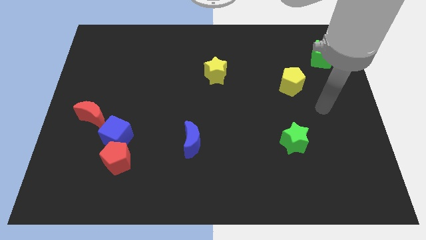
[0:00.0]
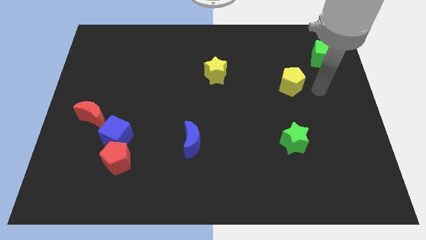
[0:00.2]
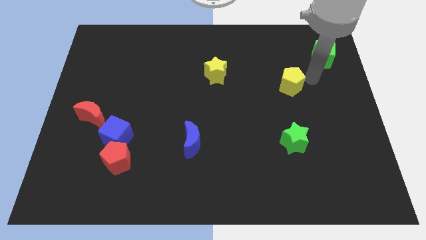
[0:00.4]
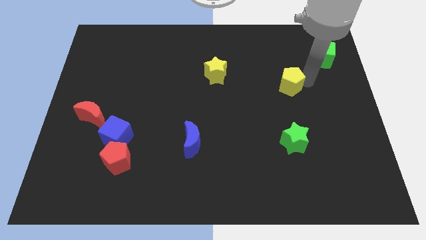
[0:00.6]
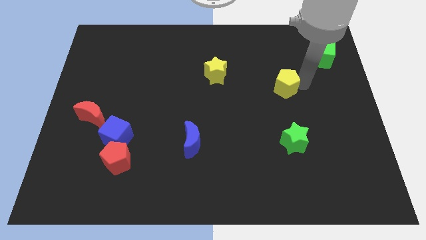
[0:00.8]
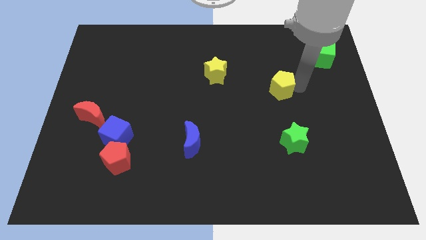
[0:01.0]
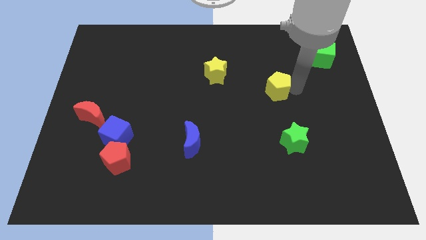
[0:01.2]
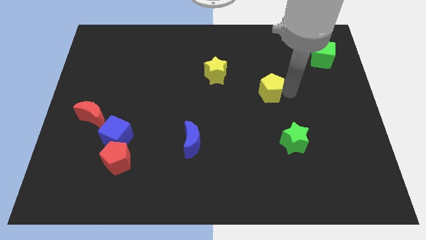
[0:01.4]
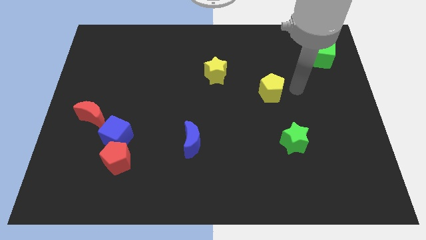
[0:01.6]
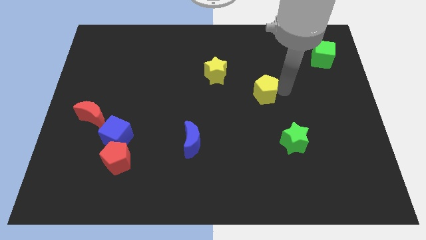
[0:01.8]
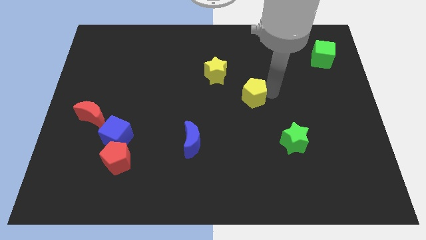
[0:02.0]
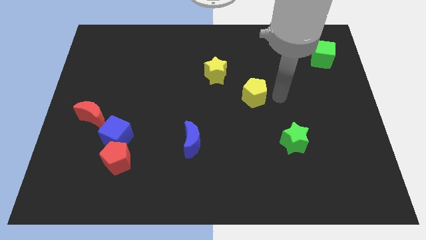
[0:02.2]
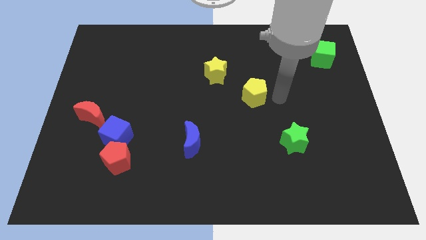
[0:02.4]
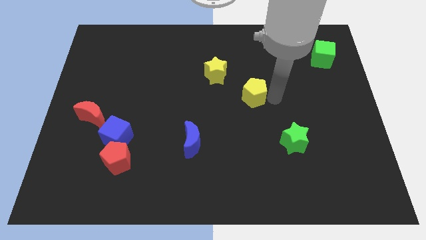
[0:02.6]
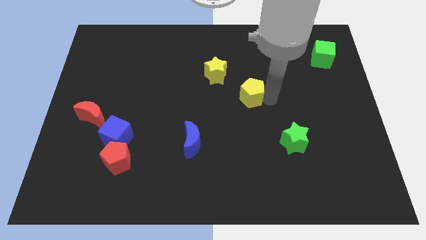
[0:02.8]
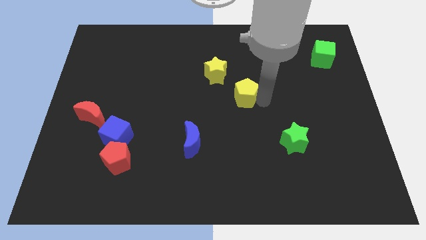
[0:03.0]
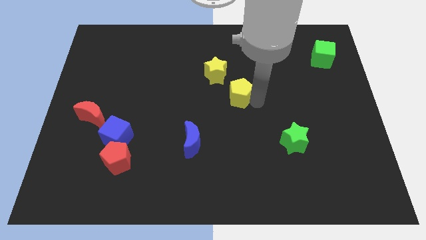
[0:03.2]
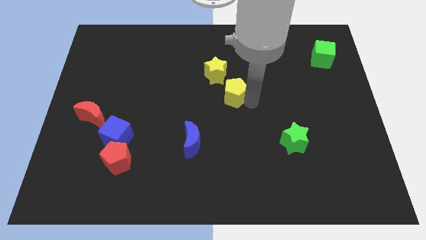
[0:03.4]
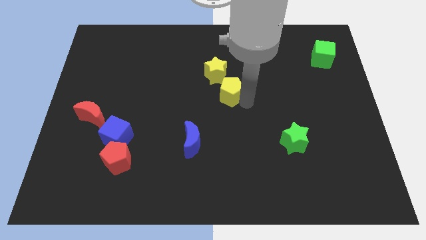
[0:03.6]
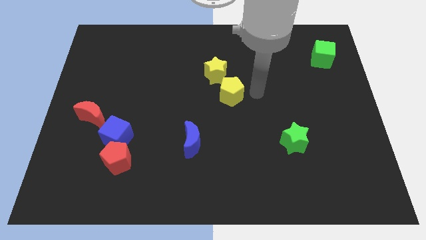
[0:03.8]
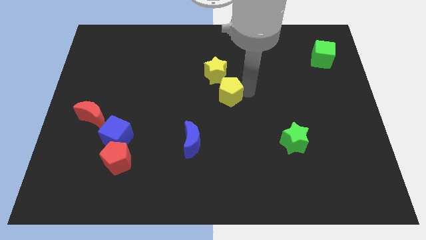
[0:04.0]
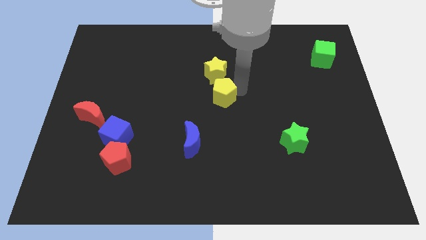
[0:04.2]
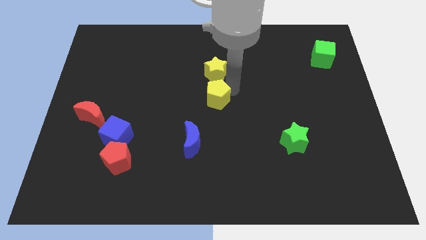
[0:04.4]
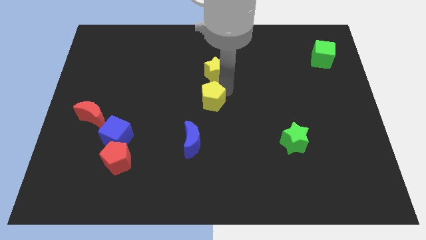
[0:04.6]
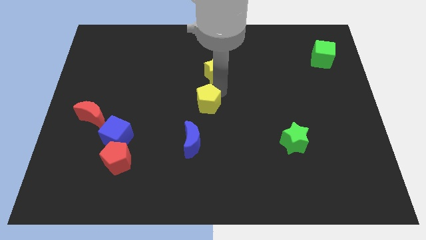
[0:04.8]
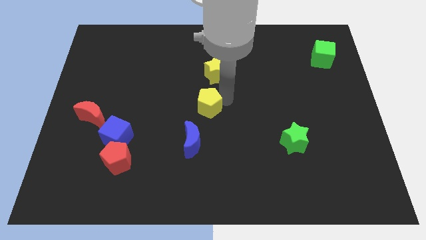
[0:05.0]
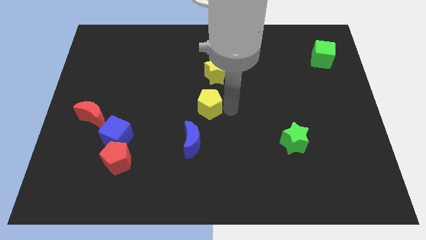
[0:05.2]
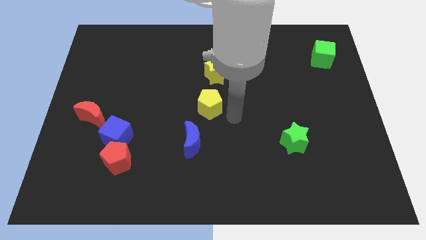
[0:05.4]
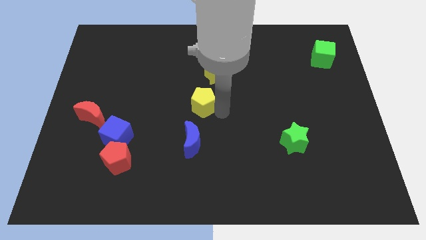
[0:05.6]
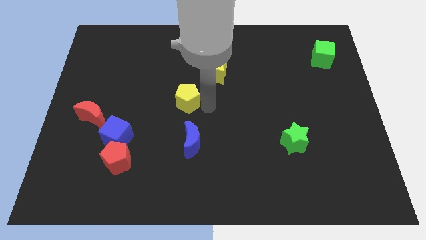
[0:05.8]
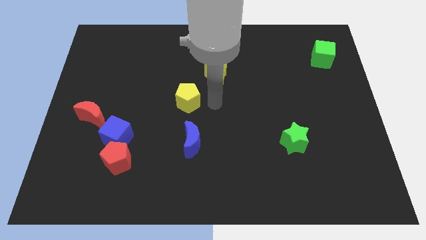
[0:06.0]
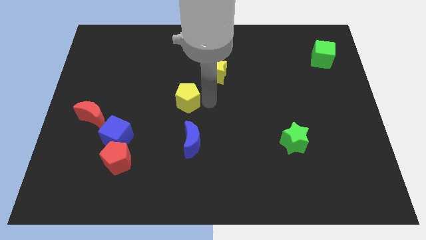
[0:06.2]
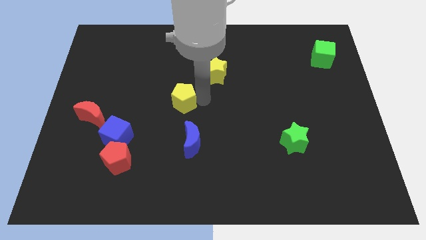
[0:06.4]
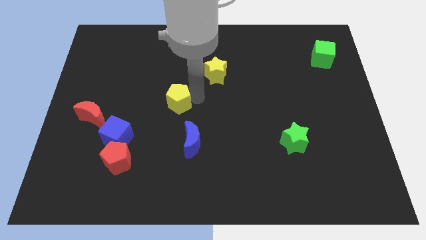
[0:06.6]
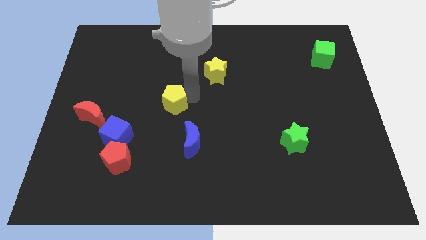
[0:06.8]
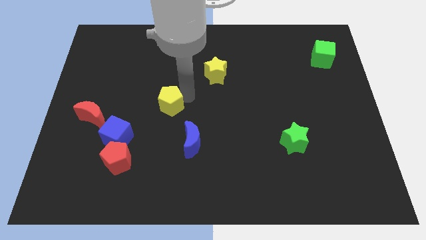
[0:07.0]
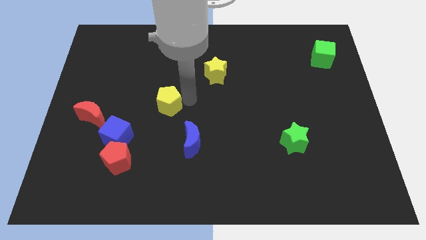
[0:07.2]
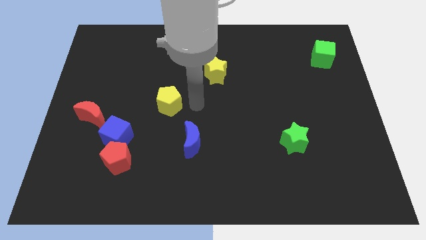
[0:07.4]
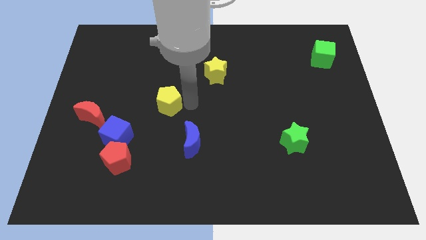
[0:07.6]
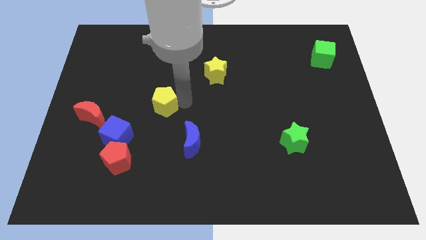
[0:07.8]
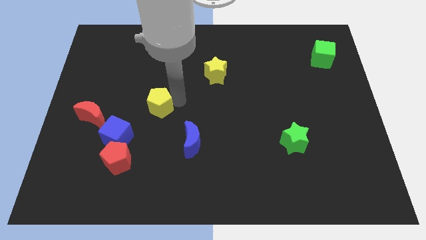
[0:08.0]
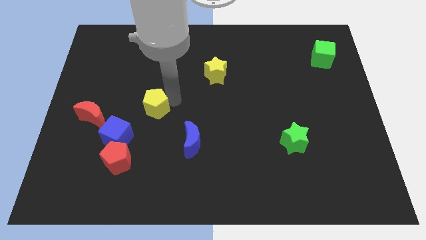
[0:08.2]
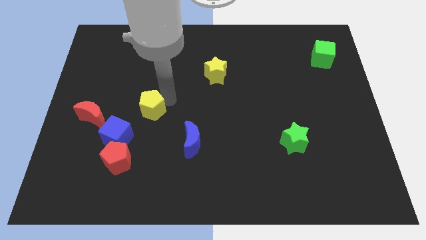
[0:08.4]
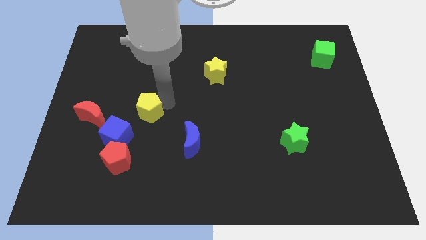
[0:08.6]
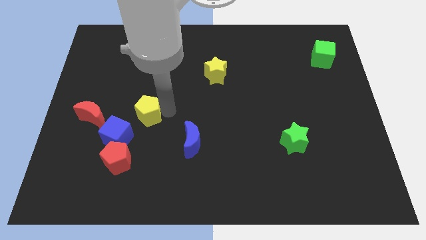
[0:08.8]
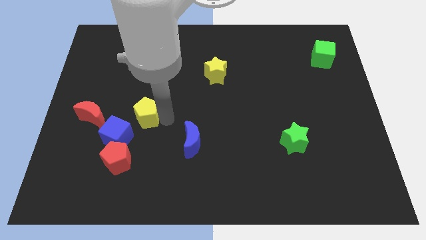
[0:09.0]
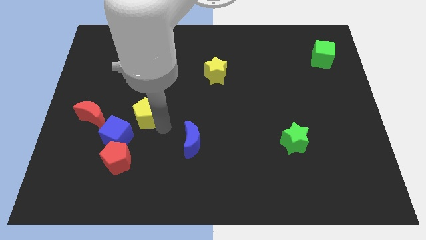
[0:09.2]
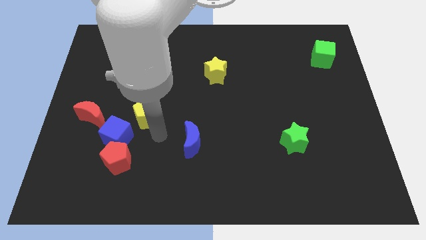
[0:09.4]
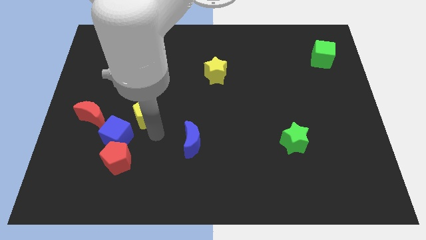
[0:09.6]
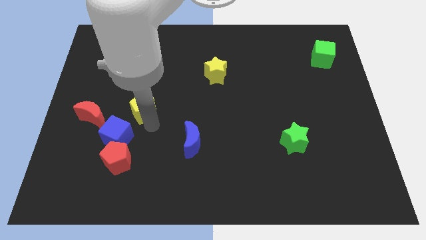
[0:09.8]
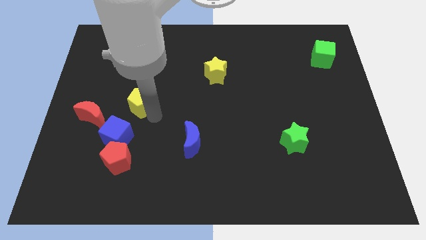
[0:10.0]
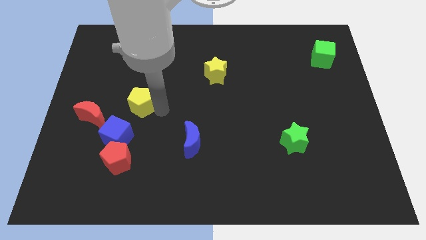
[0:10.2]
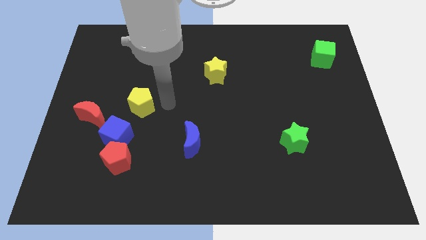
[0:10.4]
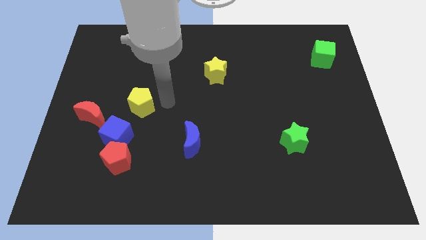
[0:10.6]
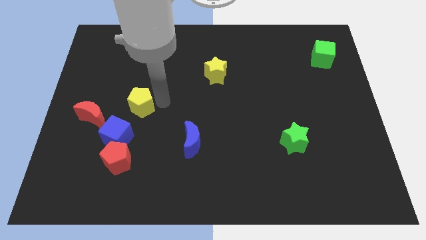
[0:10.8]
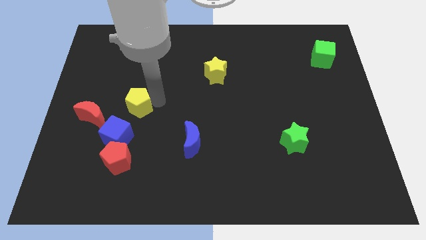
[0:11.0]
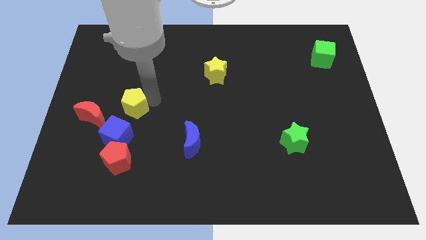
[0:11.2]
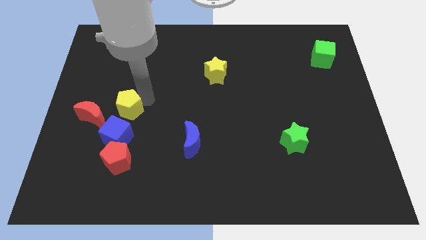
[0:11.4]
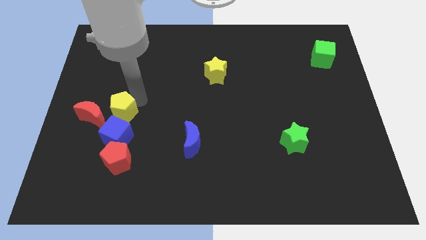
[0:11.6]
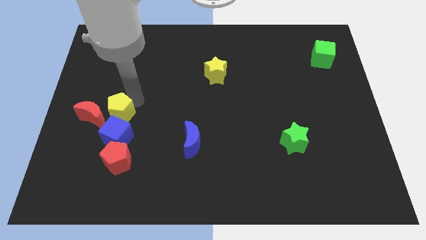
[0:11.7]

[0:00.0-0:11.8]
move the yellow pentagon towards the red moon

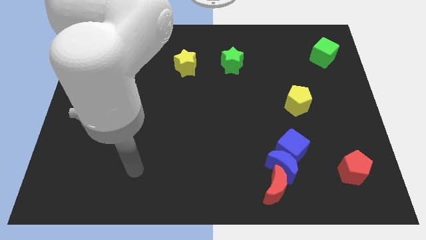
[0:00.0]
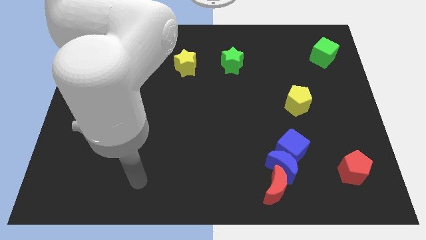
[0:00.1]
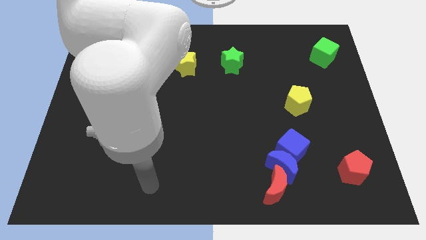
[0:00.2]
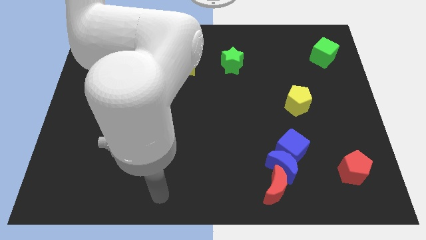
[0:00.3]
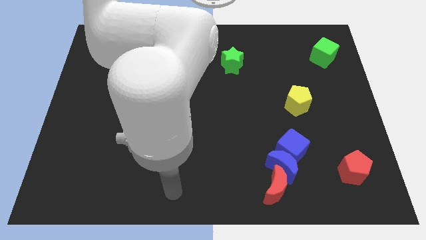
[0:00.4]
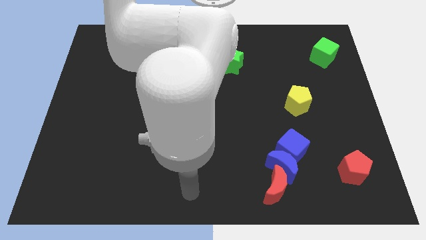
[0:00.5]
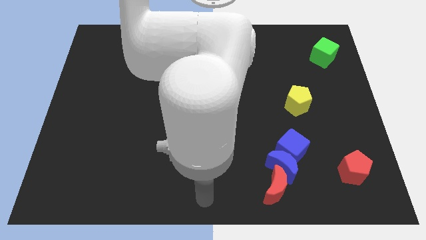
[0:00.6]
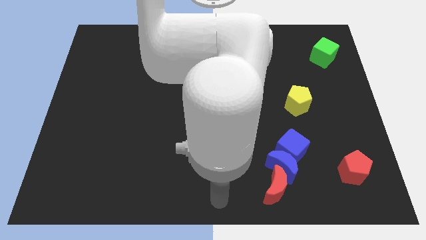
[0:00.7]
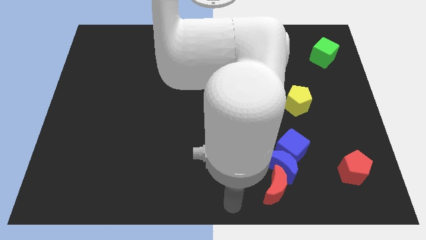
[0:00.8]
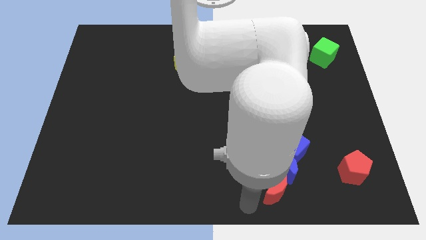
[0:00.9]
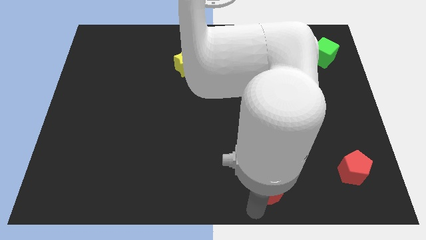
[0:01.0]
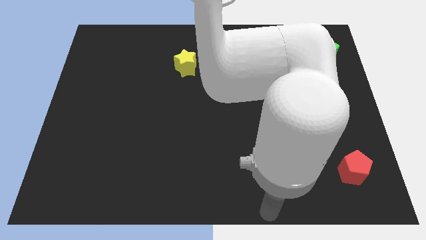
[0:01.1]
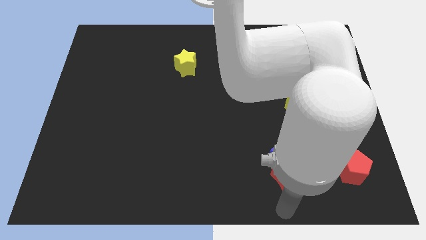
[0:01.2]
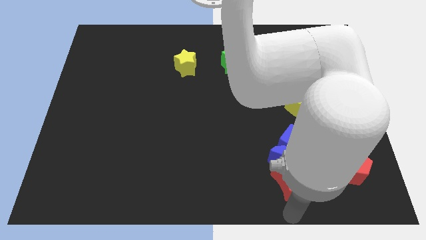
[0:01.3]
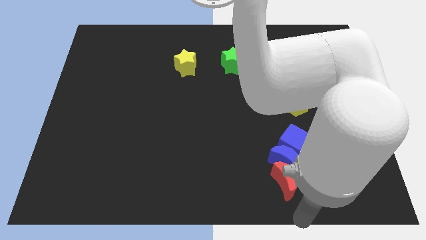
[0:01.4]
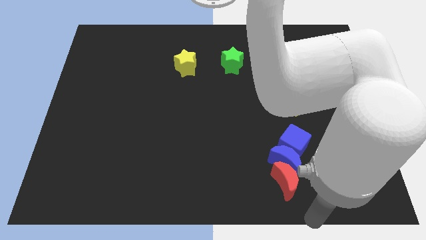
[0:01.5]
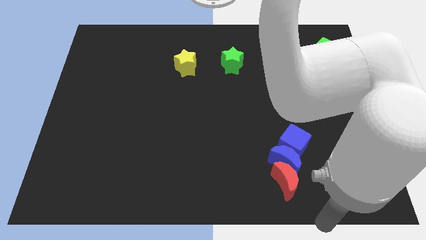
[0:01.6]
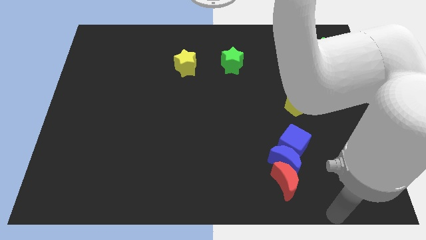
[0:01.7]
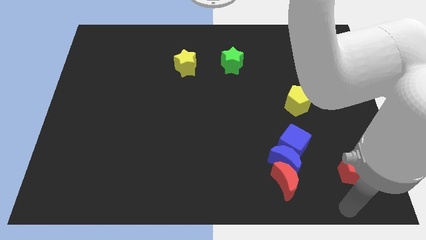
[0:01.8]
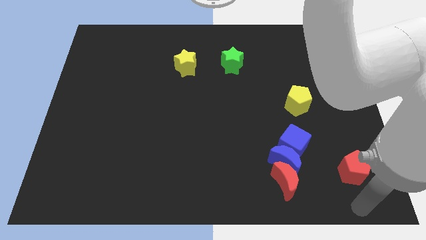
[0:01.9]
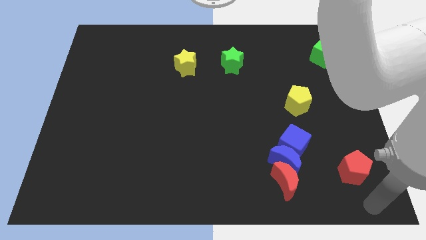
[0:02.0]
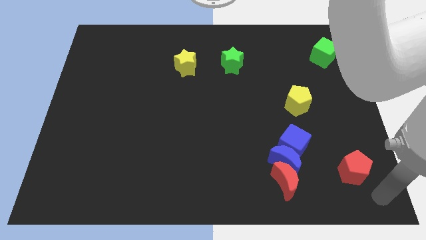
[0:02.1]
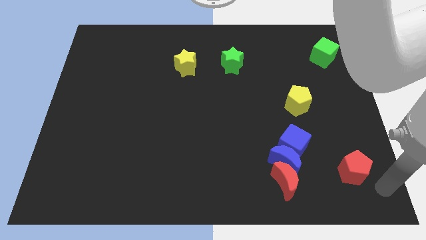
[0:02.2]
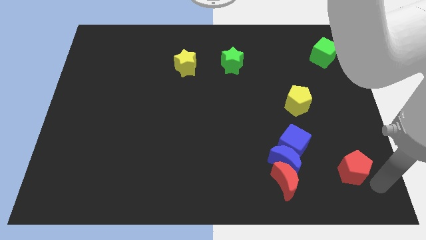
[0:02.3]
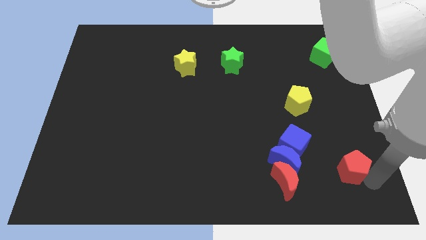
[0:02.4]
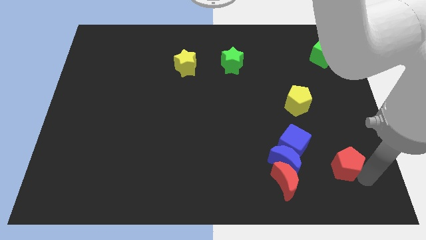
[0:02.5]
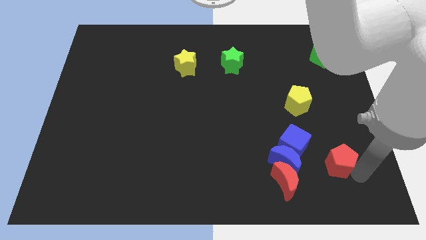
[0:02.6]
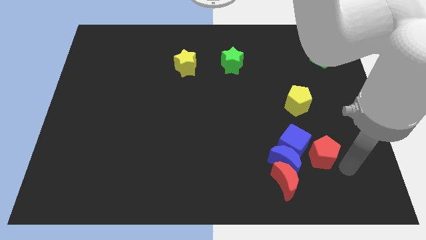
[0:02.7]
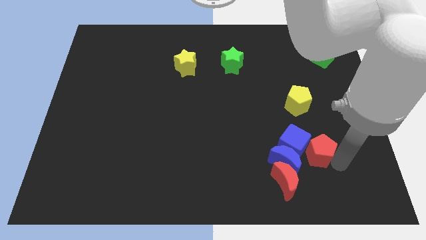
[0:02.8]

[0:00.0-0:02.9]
put the red pentagon close to the blue cube
